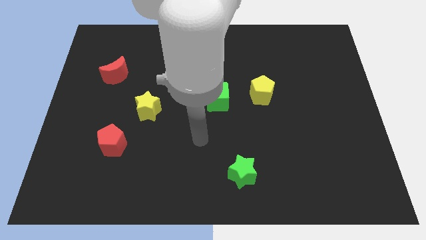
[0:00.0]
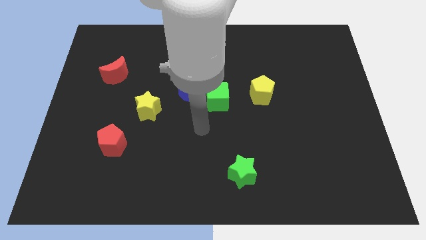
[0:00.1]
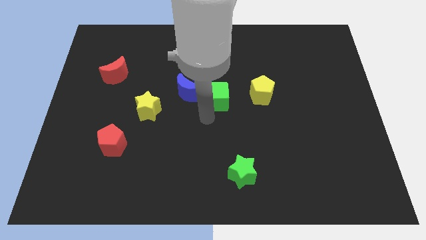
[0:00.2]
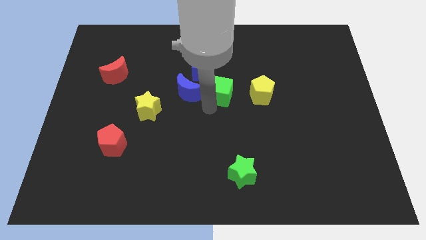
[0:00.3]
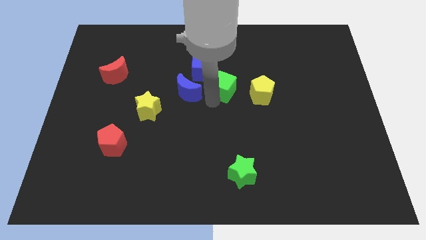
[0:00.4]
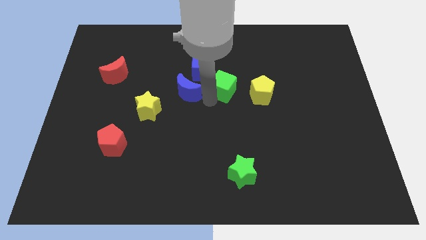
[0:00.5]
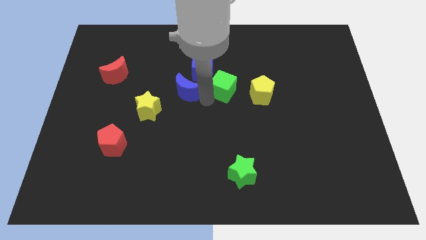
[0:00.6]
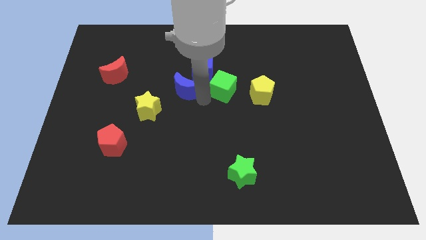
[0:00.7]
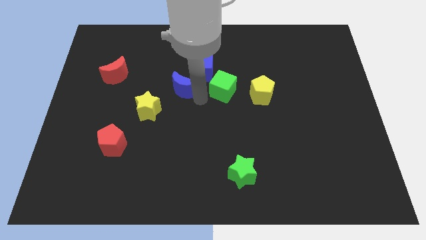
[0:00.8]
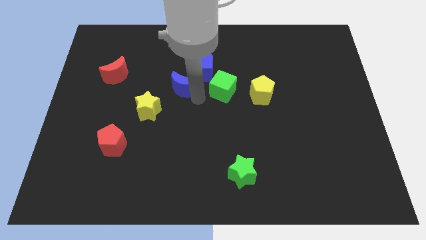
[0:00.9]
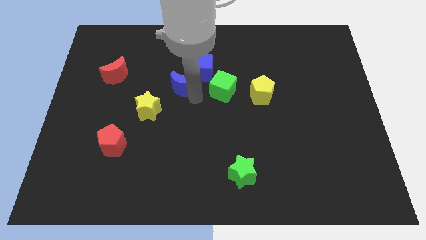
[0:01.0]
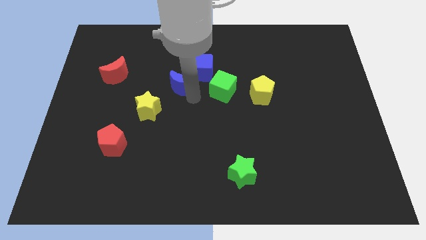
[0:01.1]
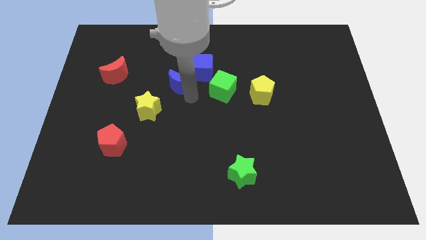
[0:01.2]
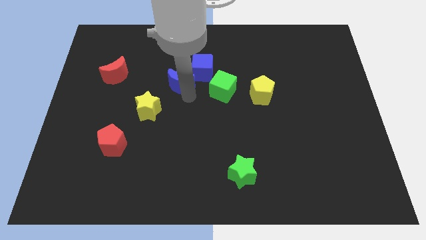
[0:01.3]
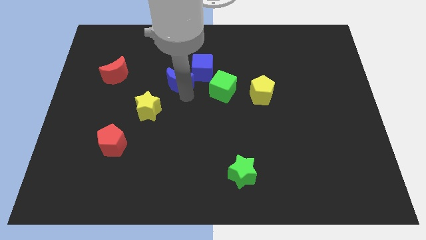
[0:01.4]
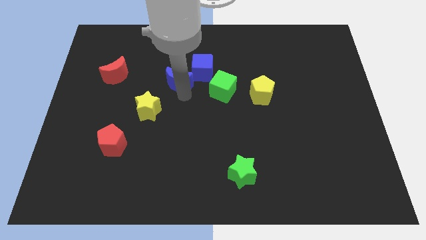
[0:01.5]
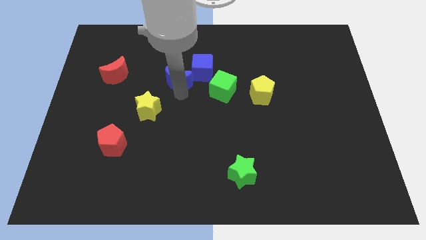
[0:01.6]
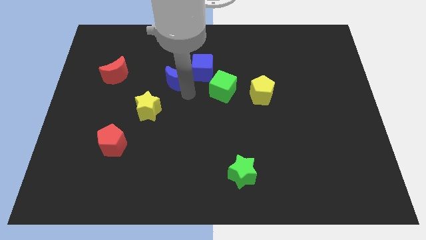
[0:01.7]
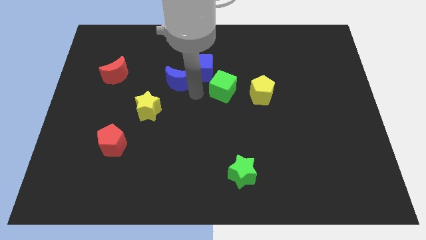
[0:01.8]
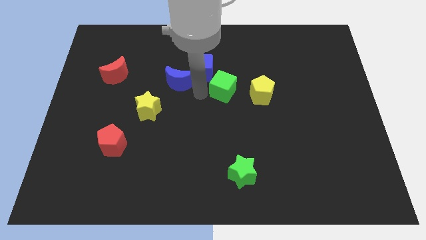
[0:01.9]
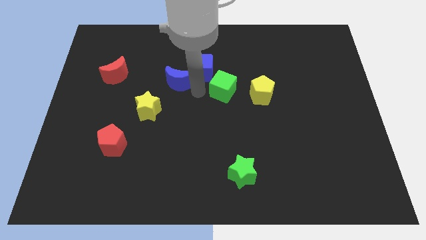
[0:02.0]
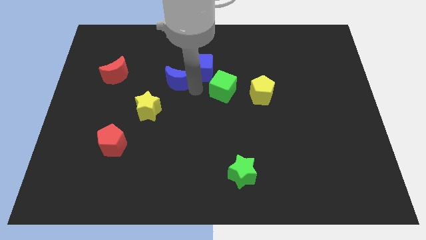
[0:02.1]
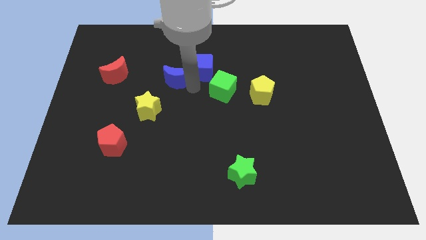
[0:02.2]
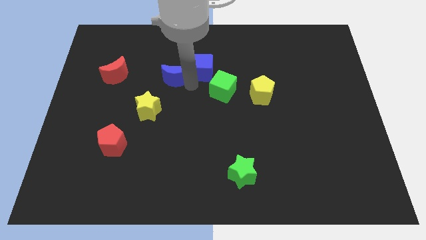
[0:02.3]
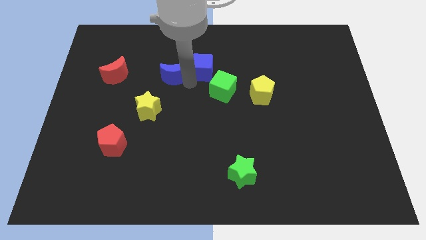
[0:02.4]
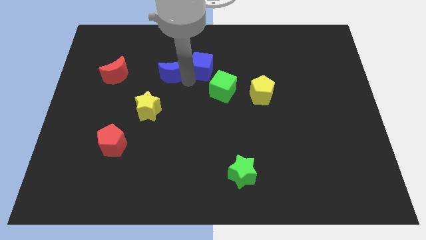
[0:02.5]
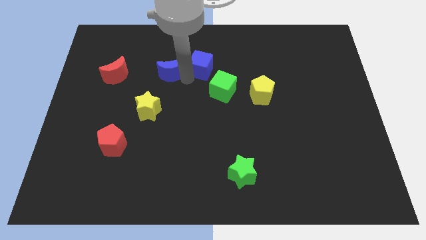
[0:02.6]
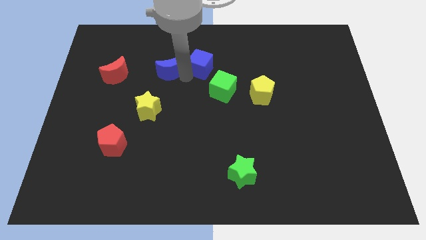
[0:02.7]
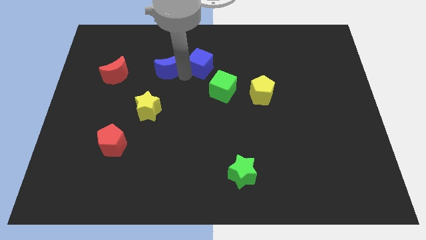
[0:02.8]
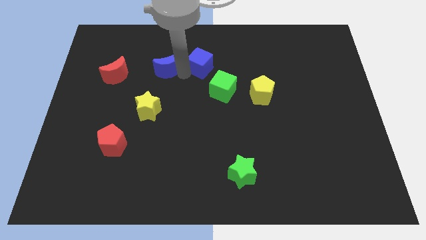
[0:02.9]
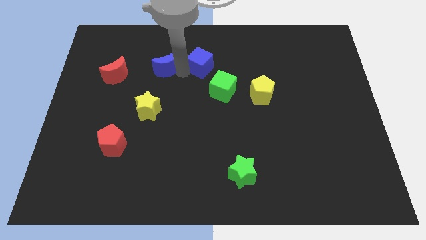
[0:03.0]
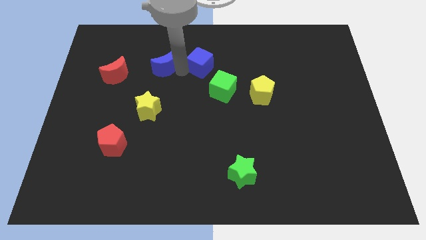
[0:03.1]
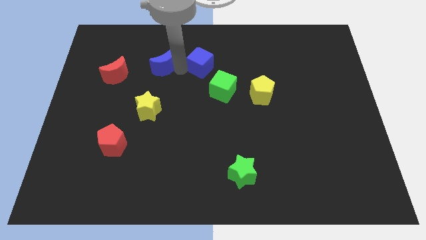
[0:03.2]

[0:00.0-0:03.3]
pull the blue moon apart from the green cube, blue cube, and yellow star

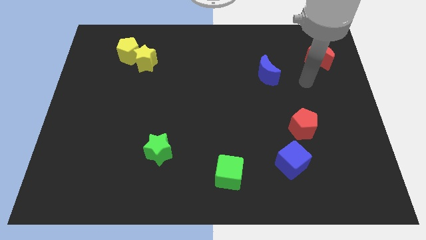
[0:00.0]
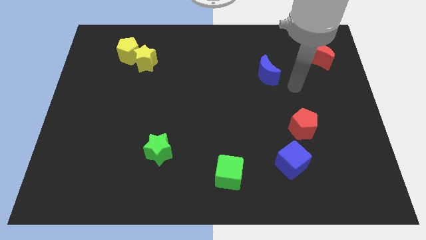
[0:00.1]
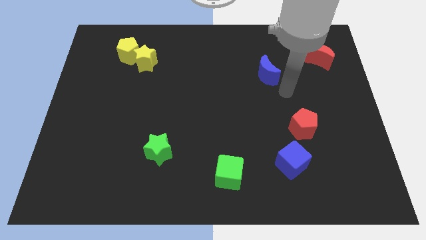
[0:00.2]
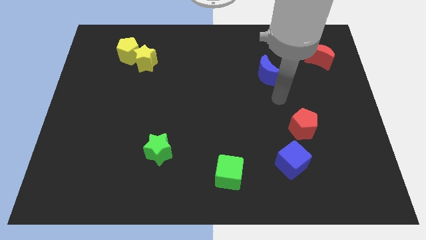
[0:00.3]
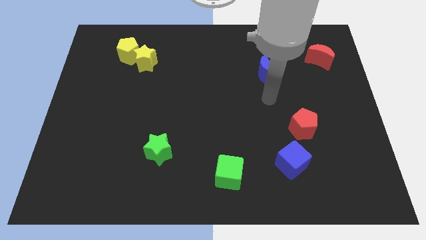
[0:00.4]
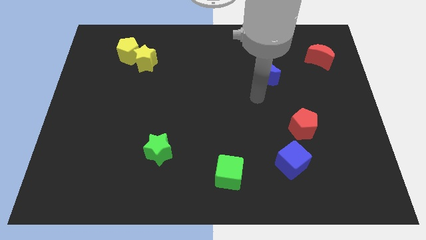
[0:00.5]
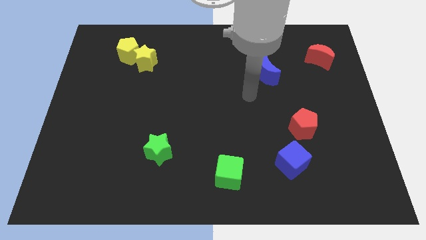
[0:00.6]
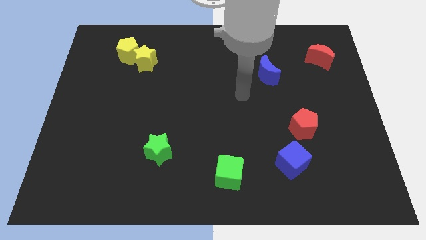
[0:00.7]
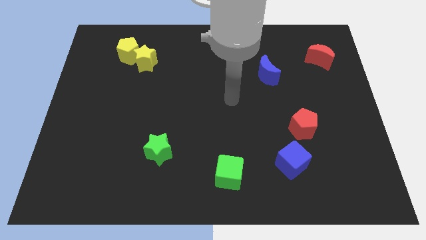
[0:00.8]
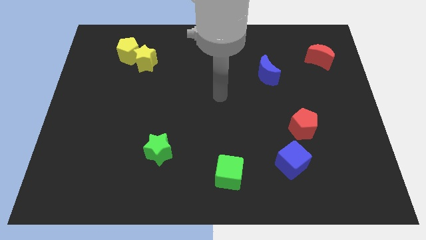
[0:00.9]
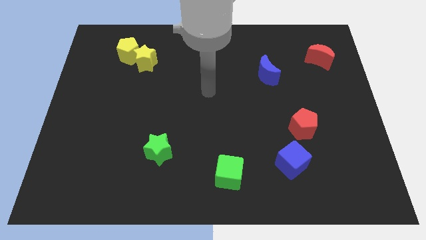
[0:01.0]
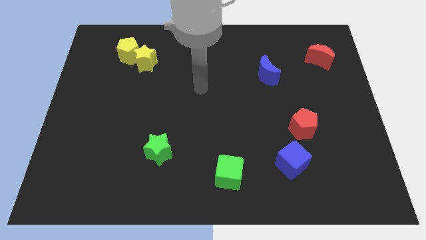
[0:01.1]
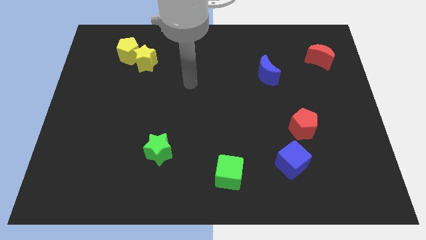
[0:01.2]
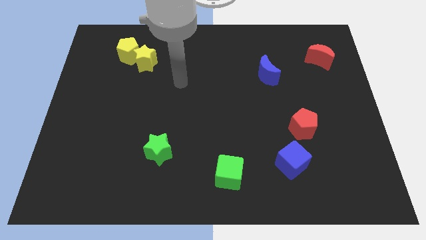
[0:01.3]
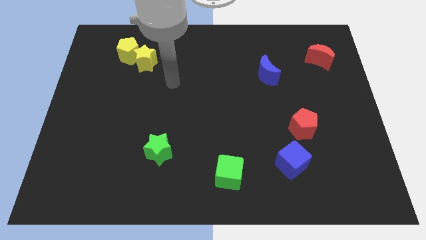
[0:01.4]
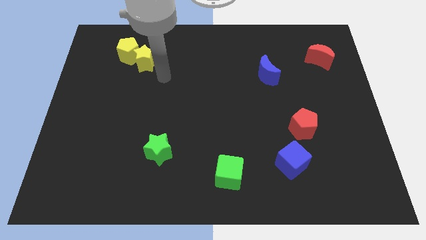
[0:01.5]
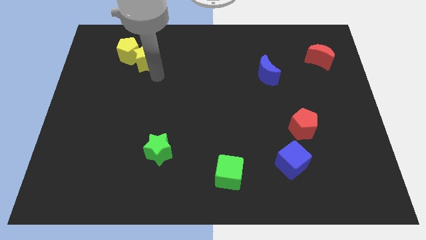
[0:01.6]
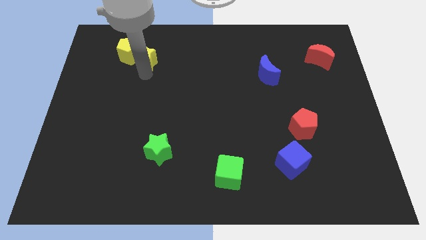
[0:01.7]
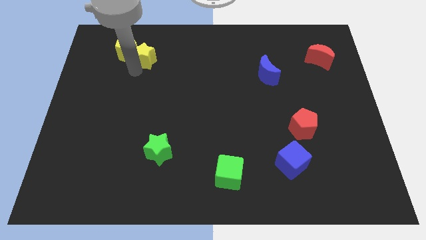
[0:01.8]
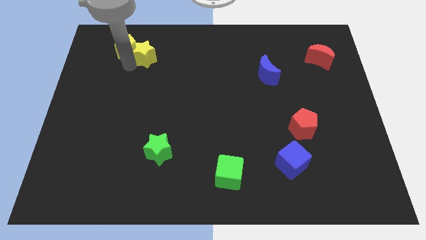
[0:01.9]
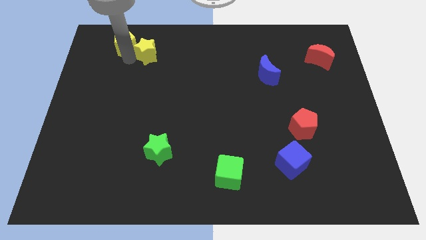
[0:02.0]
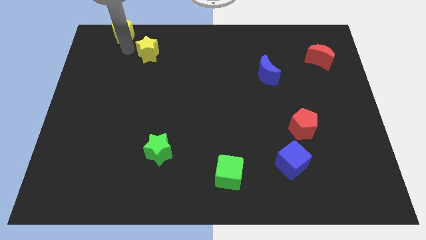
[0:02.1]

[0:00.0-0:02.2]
separate the yellow star from the yellow pentagon

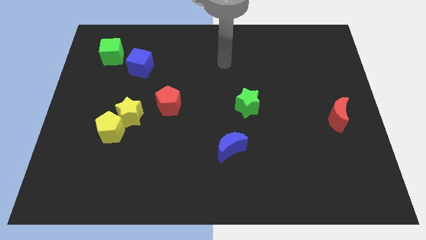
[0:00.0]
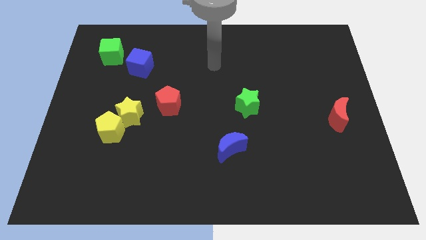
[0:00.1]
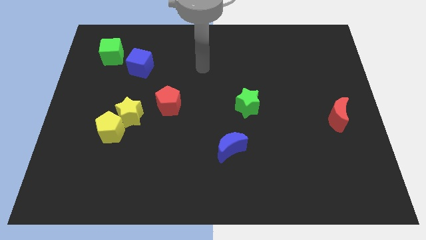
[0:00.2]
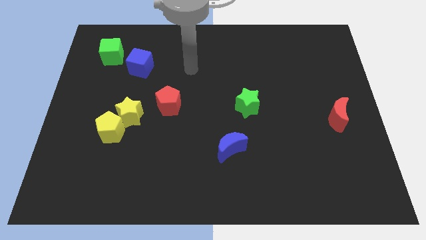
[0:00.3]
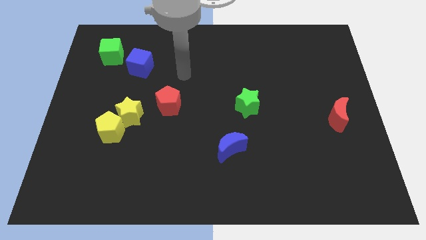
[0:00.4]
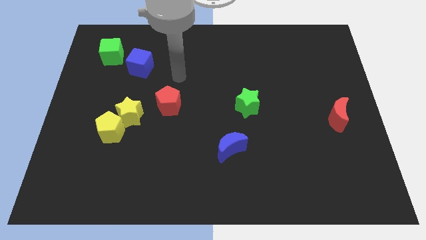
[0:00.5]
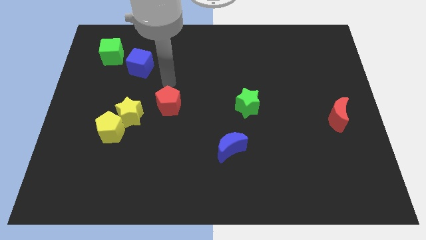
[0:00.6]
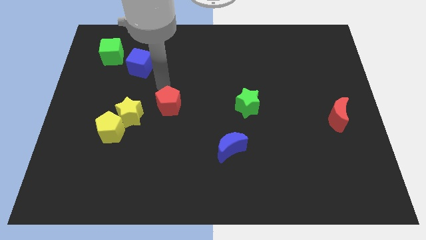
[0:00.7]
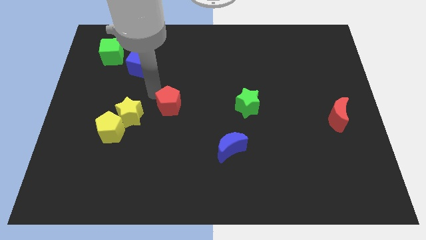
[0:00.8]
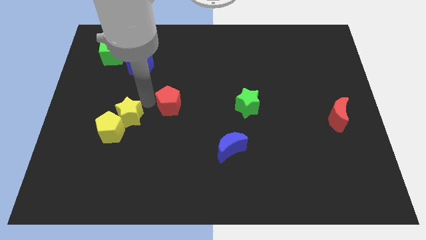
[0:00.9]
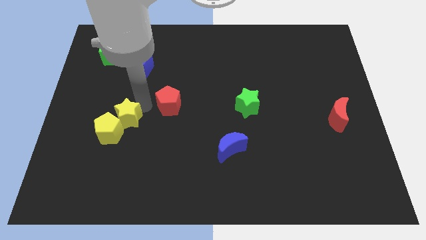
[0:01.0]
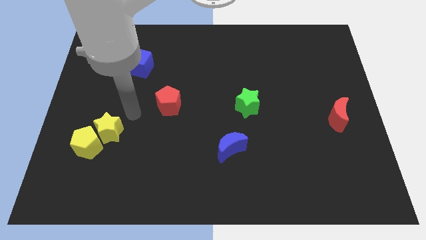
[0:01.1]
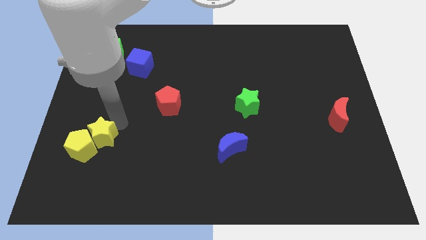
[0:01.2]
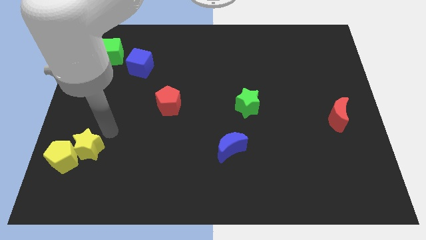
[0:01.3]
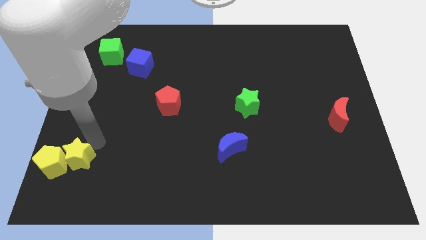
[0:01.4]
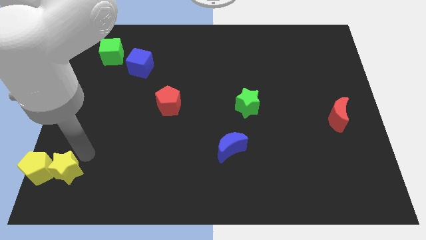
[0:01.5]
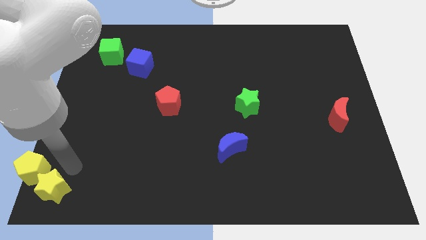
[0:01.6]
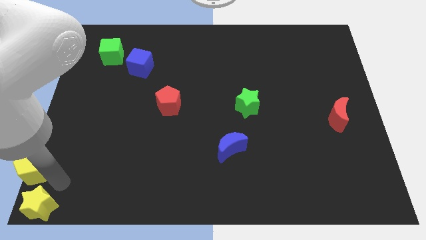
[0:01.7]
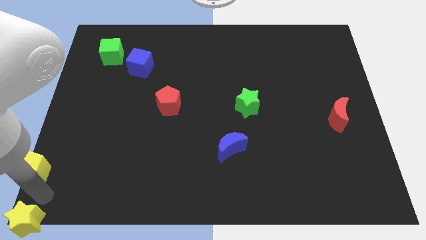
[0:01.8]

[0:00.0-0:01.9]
pull the yellow pentagon apart from the yellow star

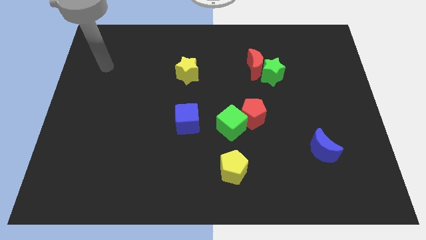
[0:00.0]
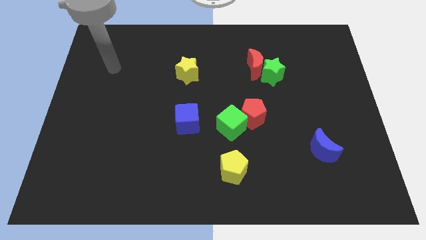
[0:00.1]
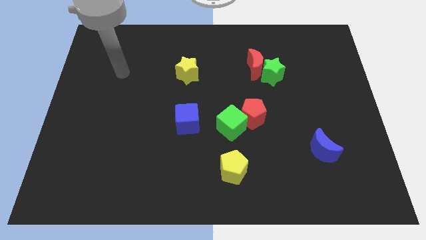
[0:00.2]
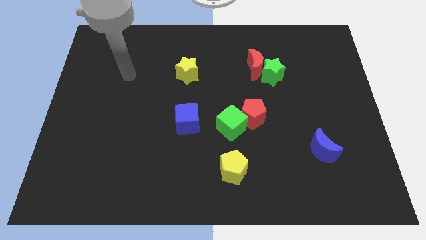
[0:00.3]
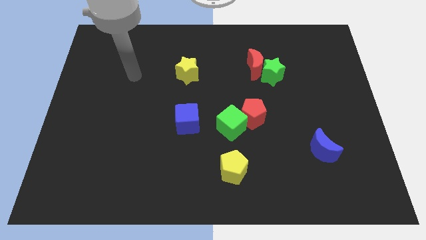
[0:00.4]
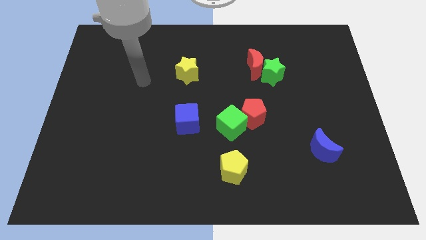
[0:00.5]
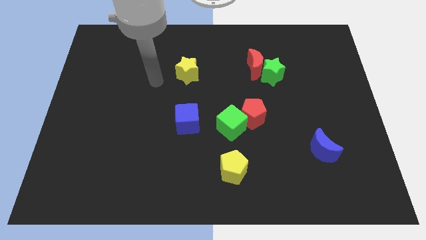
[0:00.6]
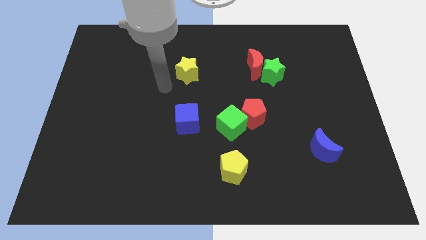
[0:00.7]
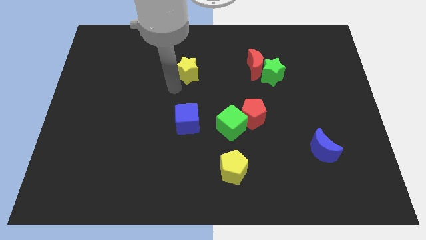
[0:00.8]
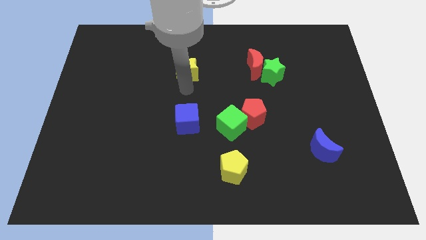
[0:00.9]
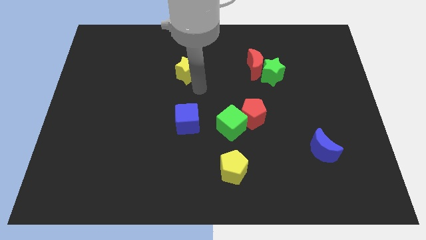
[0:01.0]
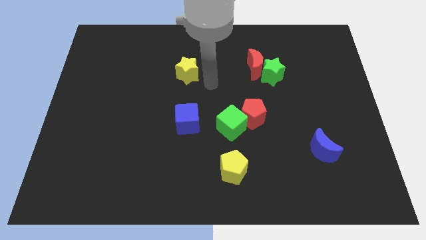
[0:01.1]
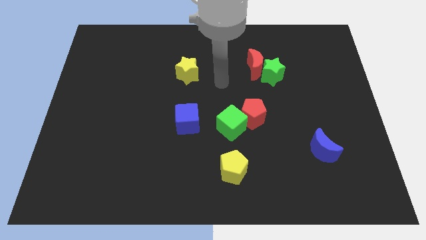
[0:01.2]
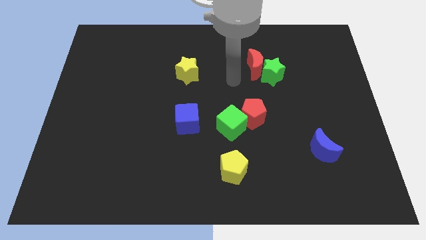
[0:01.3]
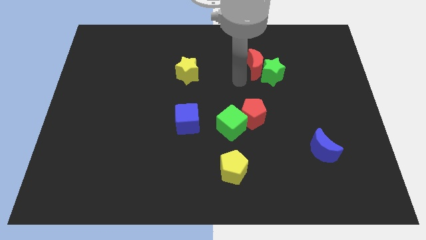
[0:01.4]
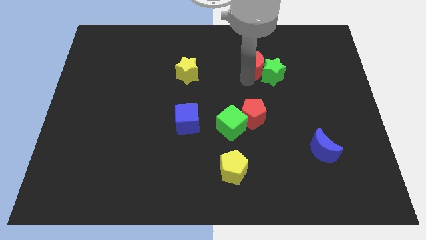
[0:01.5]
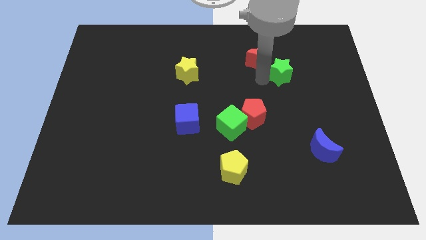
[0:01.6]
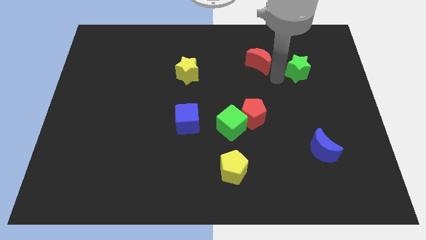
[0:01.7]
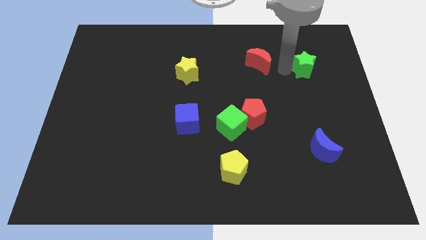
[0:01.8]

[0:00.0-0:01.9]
move the red moon away from the green star

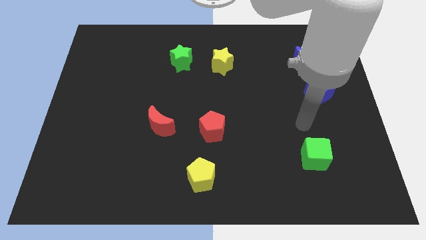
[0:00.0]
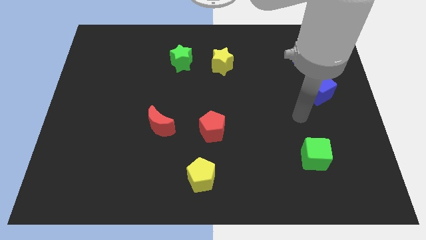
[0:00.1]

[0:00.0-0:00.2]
separate the blue moon from the blue cube
